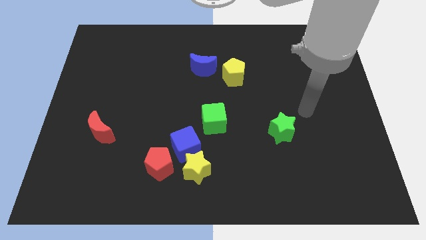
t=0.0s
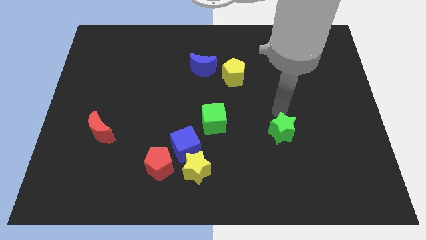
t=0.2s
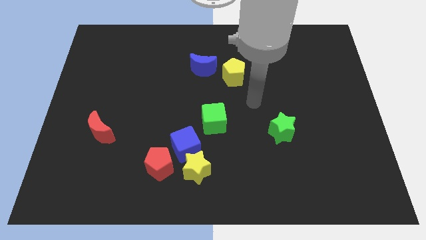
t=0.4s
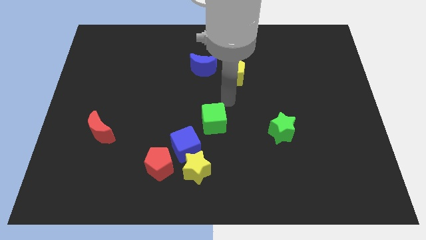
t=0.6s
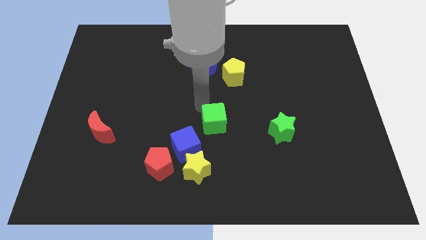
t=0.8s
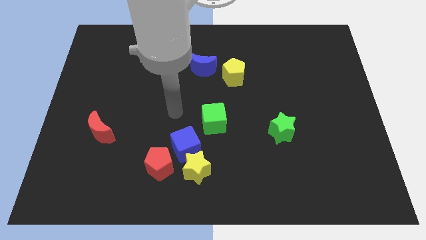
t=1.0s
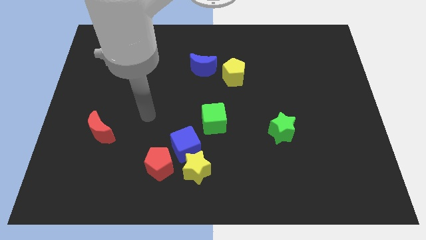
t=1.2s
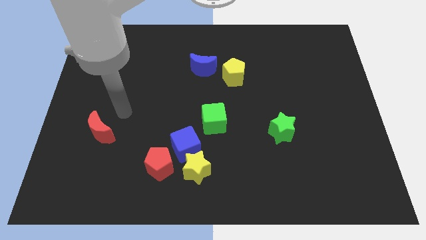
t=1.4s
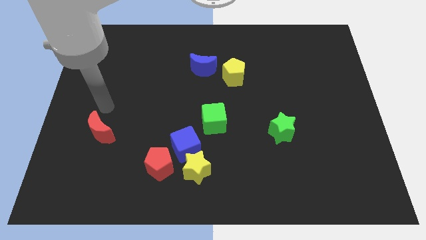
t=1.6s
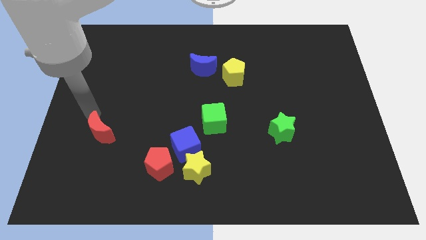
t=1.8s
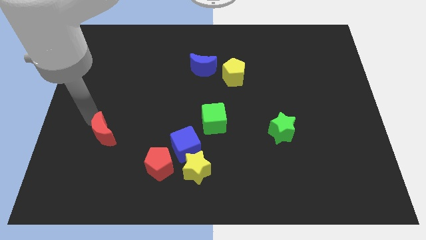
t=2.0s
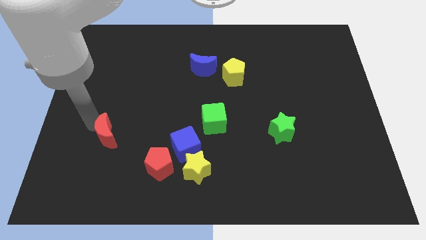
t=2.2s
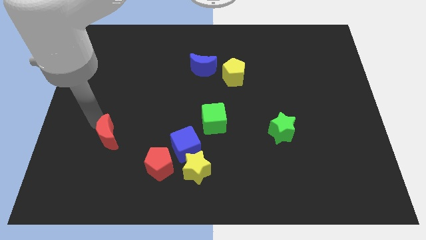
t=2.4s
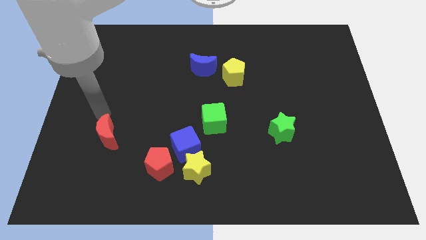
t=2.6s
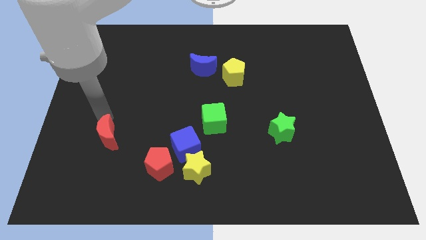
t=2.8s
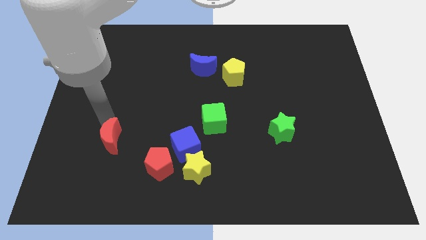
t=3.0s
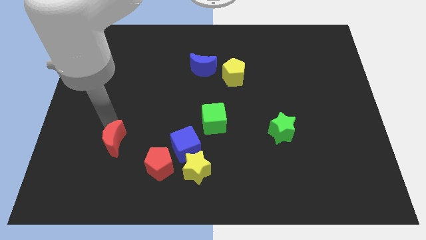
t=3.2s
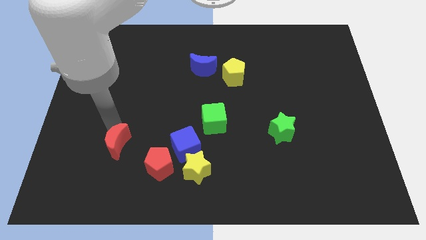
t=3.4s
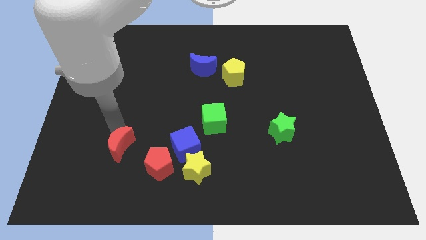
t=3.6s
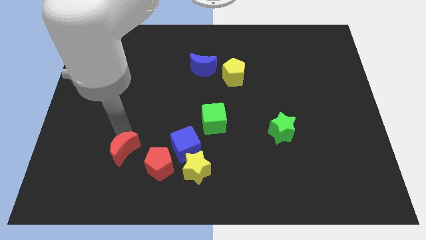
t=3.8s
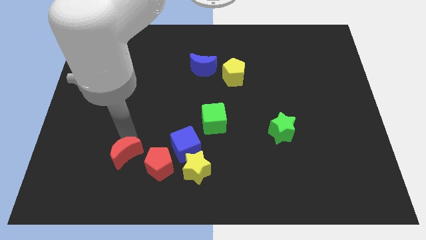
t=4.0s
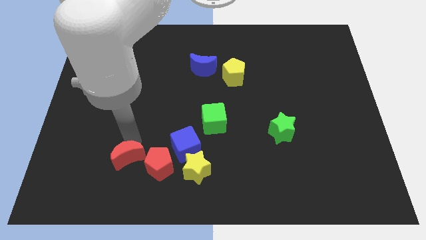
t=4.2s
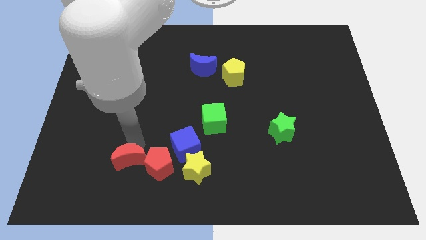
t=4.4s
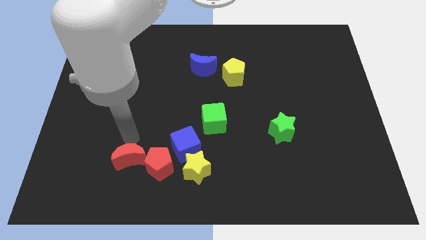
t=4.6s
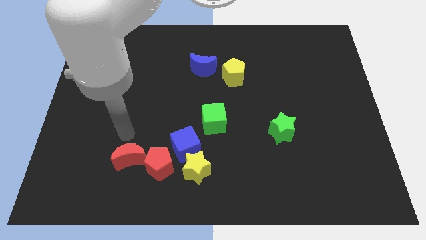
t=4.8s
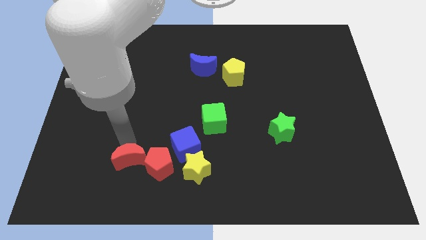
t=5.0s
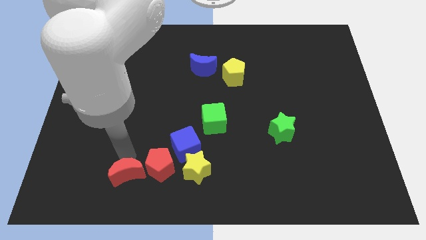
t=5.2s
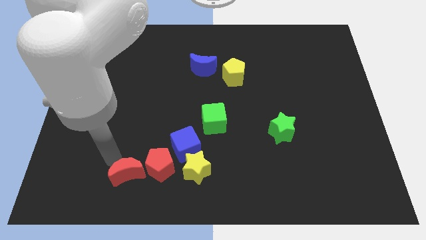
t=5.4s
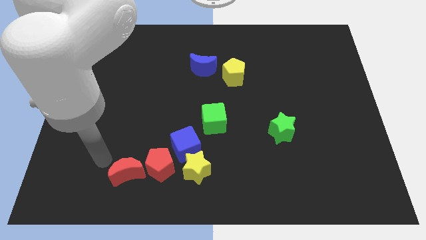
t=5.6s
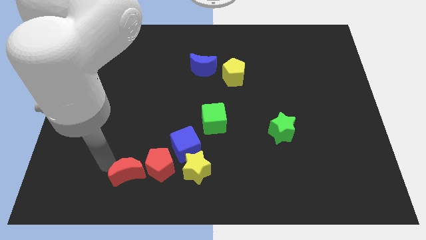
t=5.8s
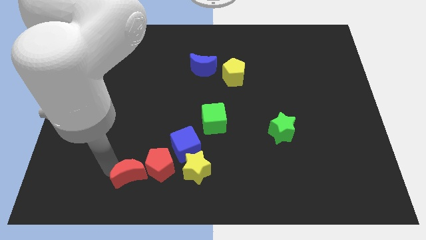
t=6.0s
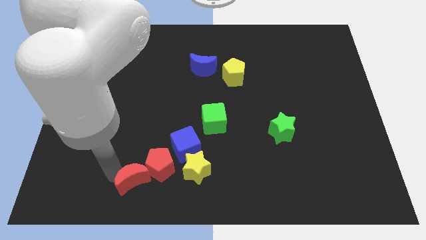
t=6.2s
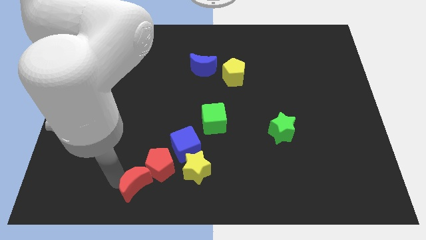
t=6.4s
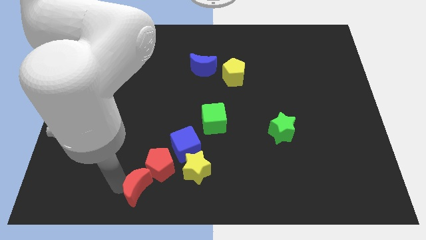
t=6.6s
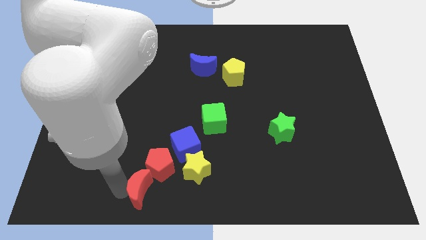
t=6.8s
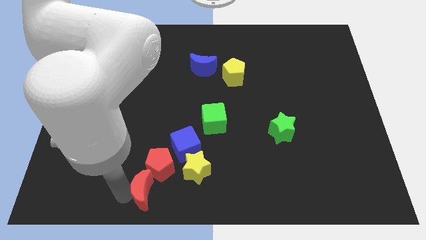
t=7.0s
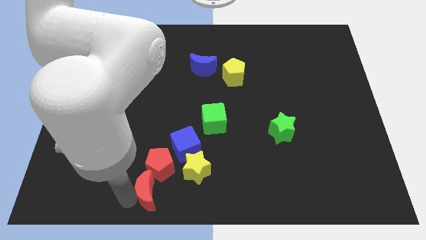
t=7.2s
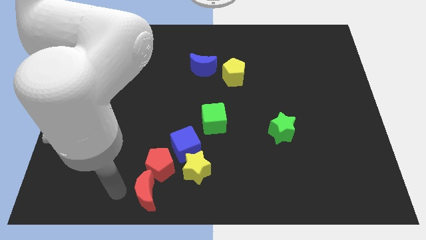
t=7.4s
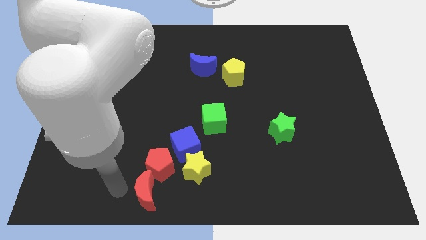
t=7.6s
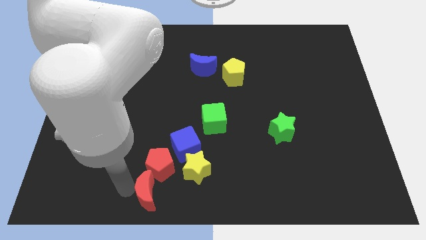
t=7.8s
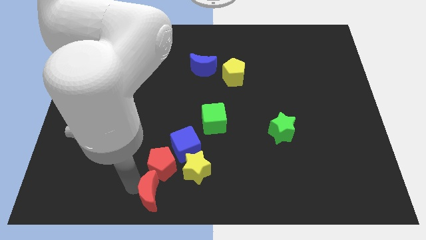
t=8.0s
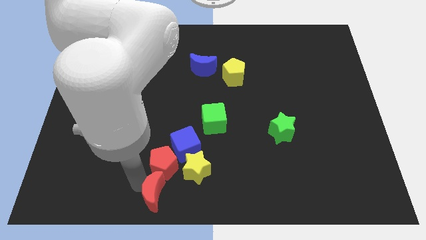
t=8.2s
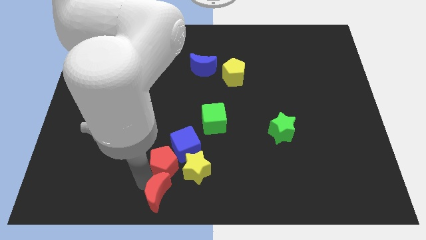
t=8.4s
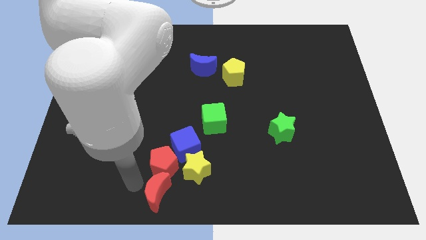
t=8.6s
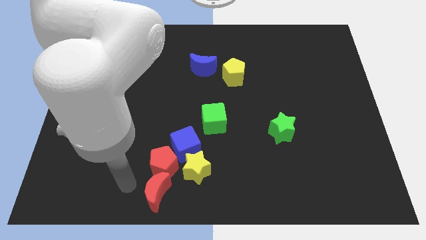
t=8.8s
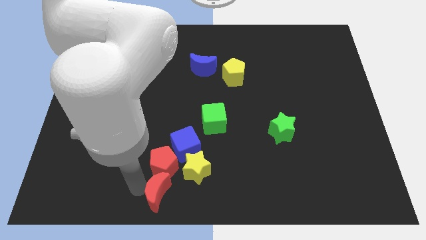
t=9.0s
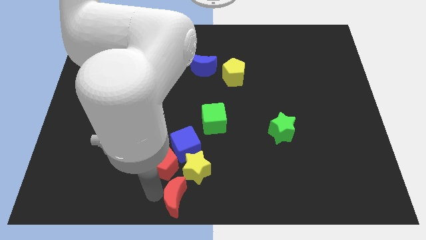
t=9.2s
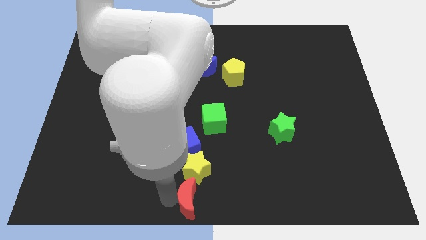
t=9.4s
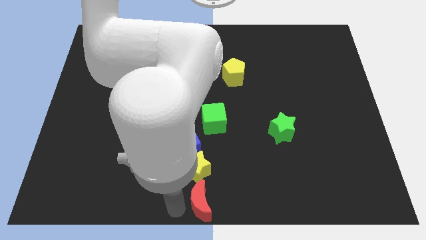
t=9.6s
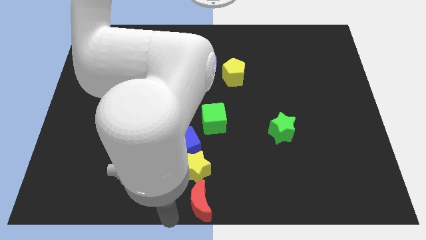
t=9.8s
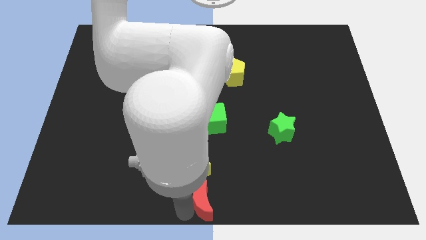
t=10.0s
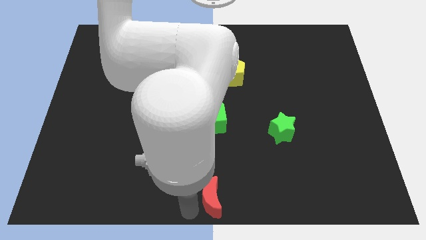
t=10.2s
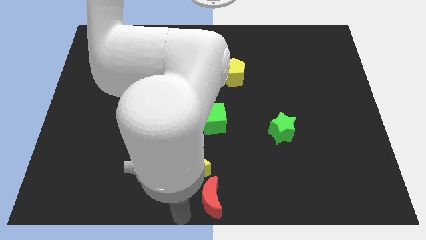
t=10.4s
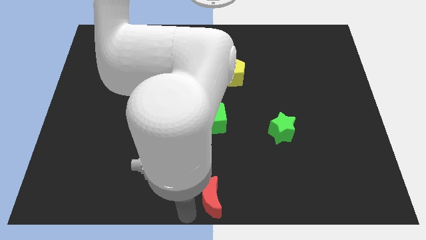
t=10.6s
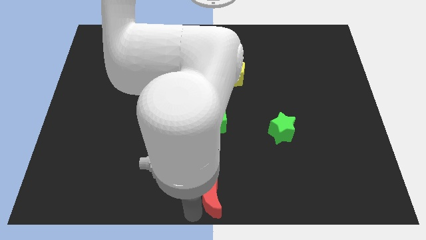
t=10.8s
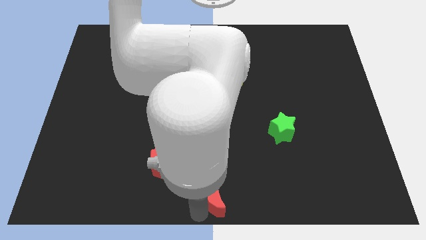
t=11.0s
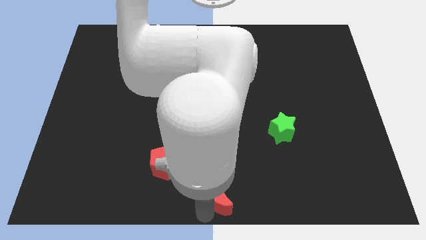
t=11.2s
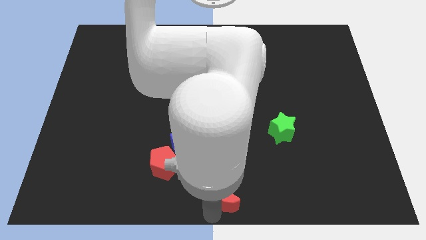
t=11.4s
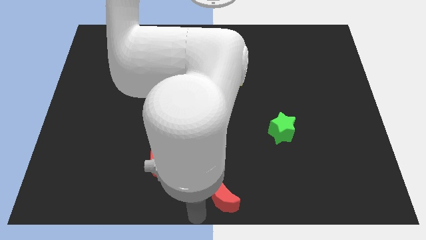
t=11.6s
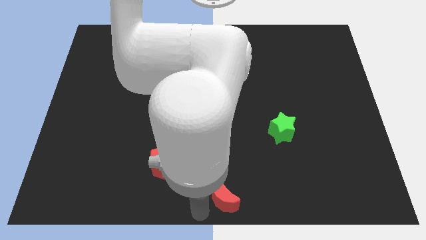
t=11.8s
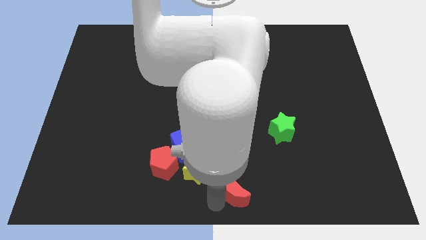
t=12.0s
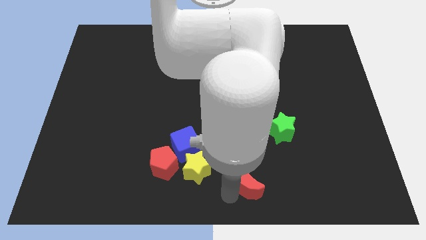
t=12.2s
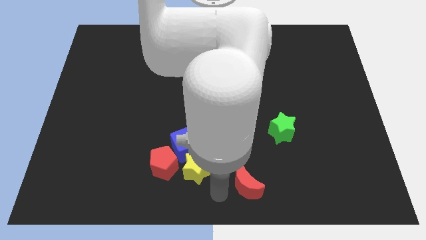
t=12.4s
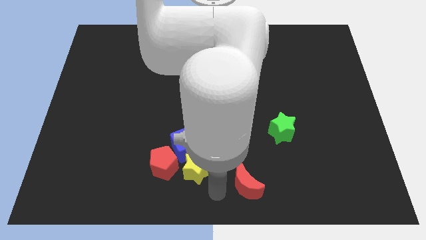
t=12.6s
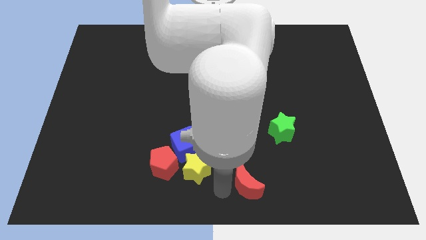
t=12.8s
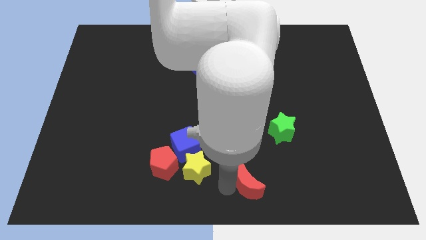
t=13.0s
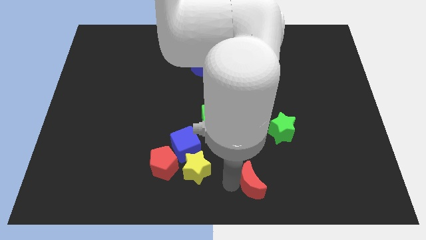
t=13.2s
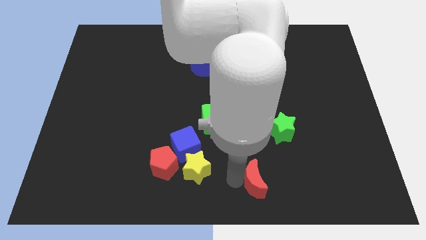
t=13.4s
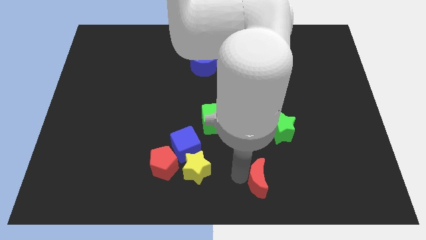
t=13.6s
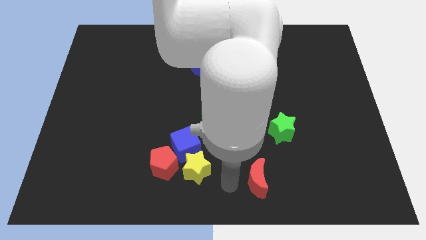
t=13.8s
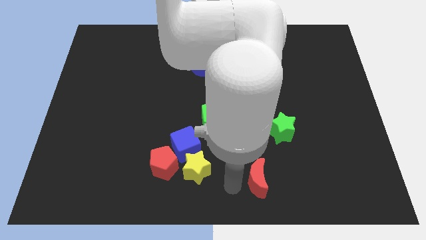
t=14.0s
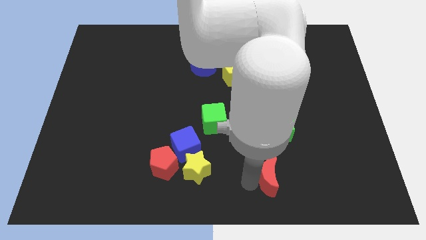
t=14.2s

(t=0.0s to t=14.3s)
move the red moon to the bottom side of the green star

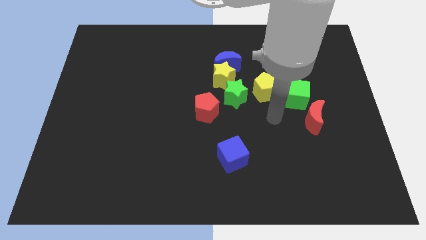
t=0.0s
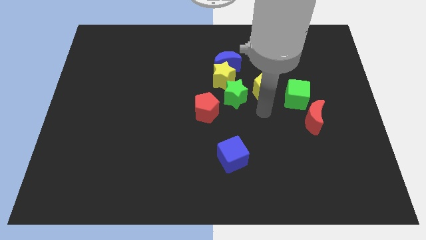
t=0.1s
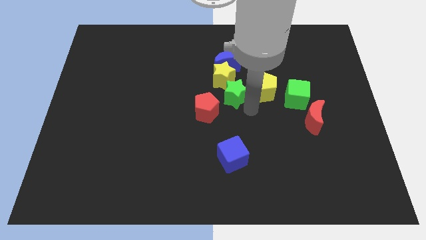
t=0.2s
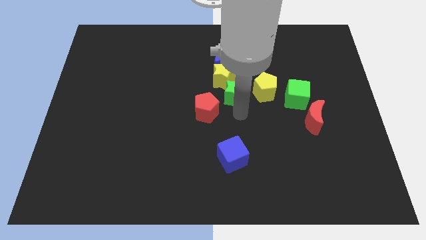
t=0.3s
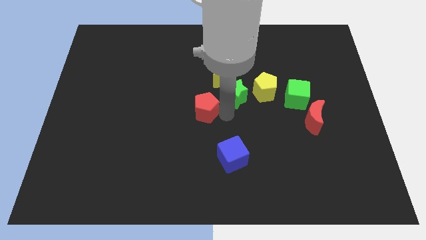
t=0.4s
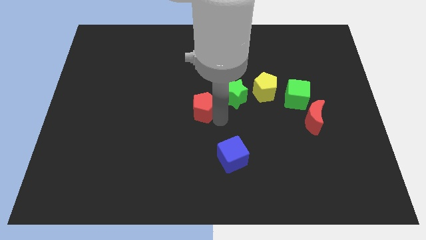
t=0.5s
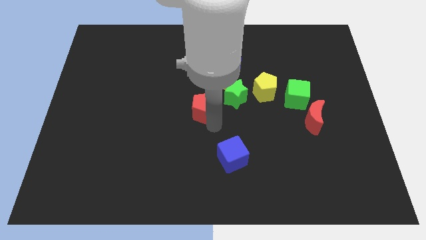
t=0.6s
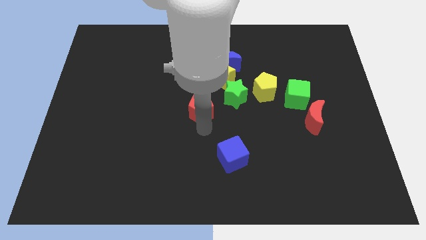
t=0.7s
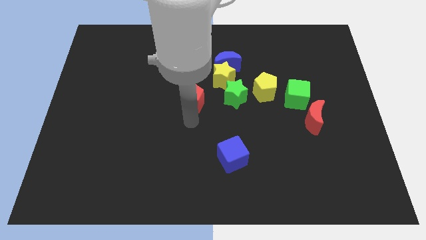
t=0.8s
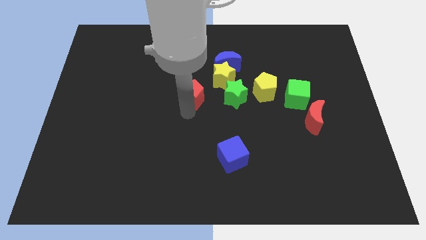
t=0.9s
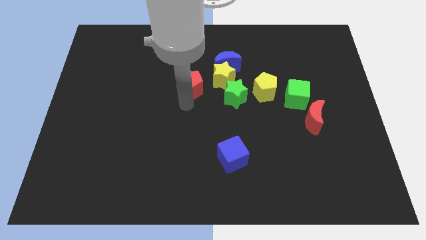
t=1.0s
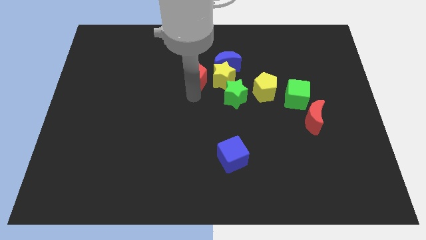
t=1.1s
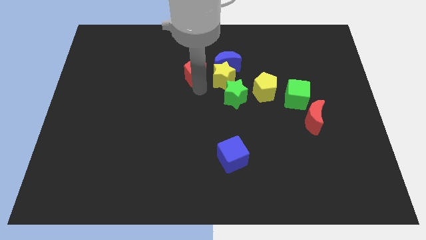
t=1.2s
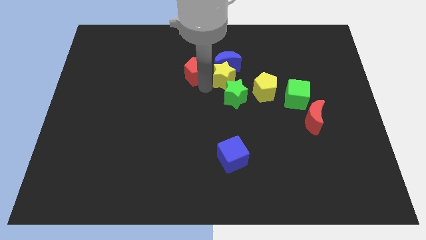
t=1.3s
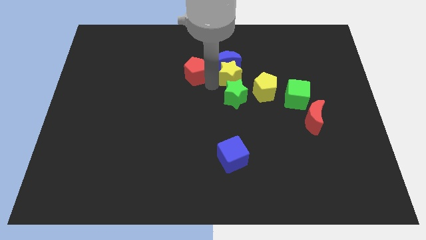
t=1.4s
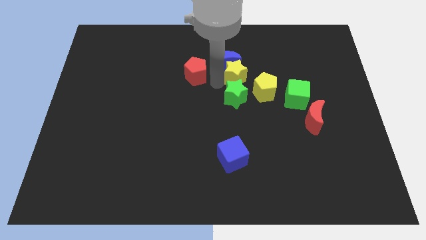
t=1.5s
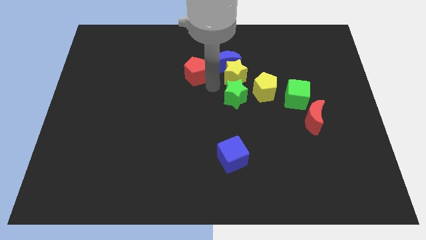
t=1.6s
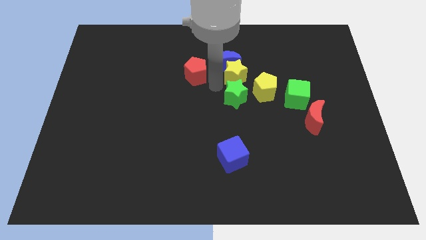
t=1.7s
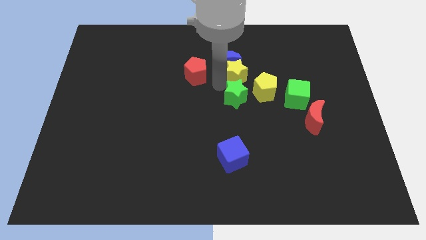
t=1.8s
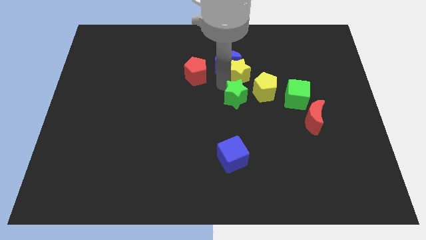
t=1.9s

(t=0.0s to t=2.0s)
push the yellow star just right of the blue moon
